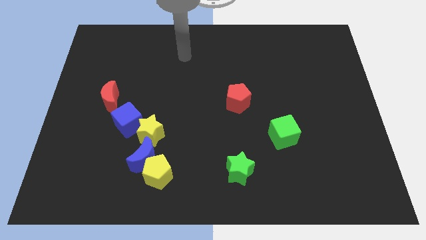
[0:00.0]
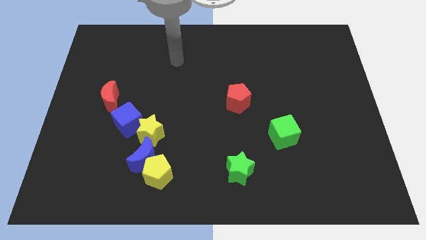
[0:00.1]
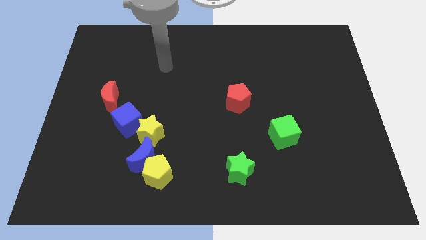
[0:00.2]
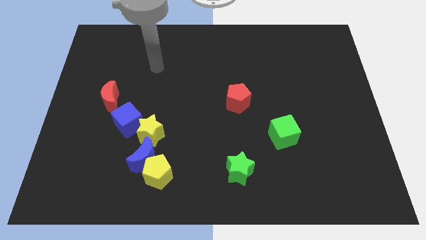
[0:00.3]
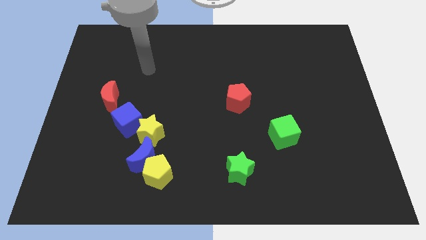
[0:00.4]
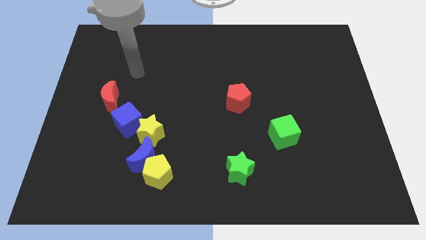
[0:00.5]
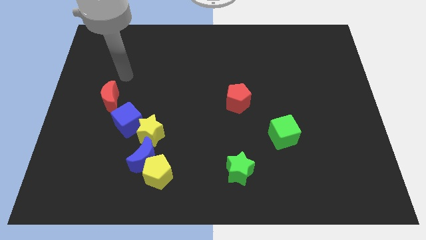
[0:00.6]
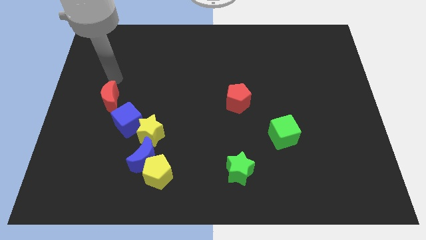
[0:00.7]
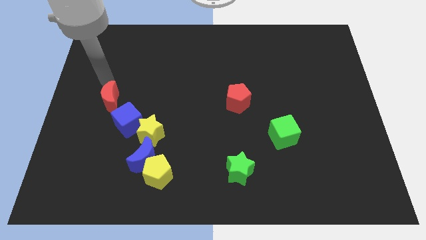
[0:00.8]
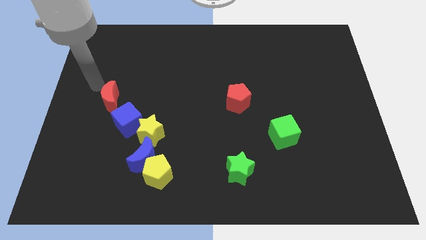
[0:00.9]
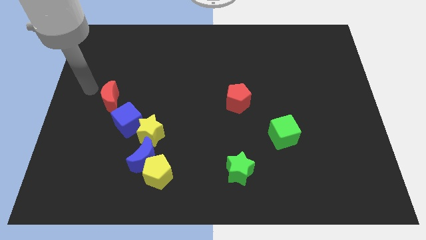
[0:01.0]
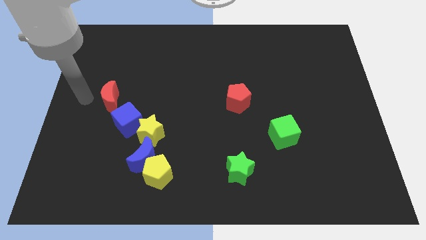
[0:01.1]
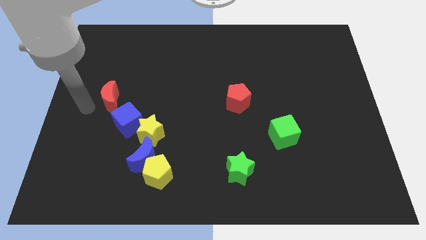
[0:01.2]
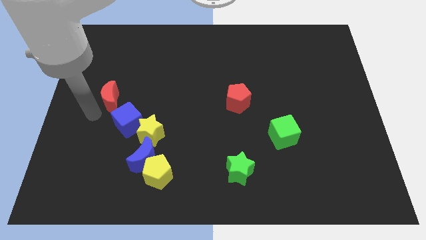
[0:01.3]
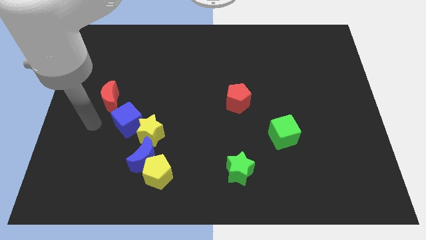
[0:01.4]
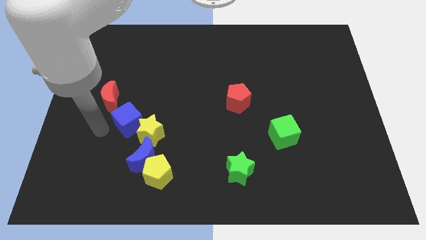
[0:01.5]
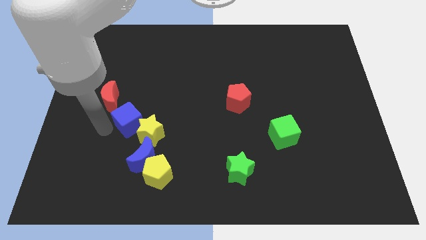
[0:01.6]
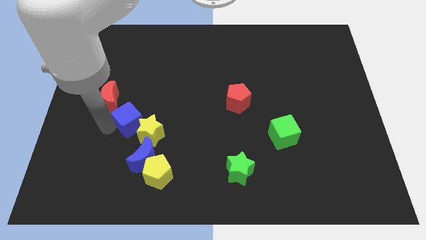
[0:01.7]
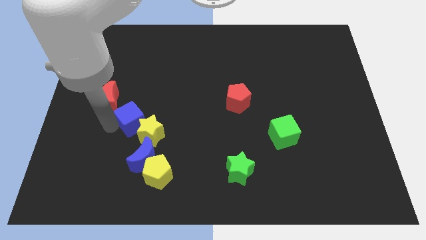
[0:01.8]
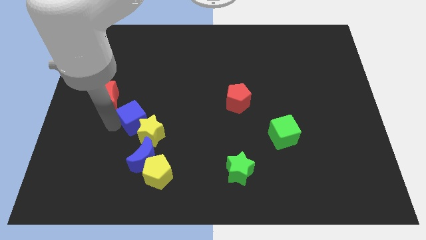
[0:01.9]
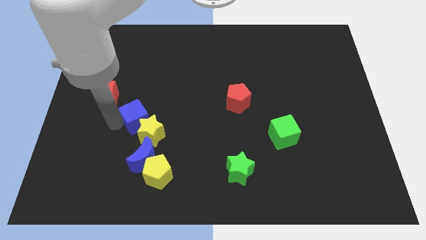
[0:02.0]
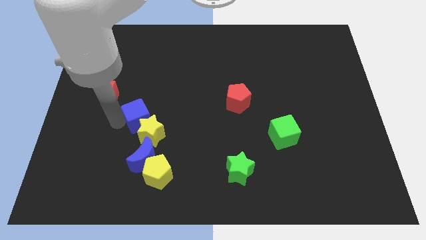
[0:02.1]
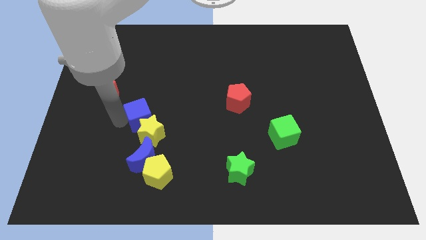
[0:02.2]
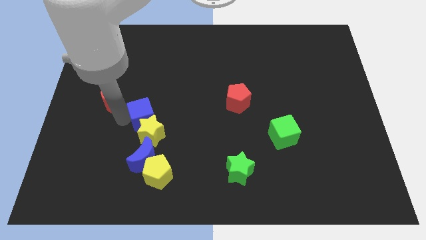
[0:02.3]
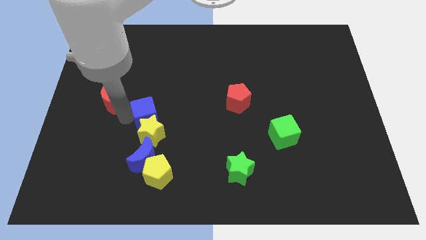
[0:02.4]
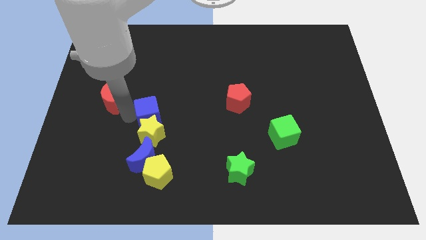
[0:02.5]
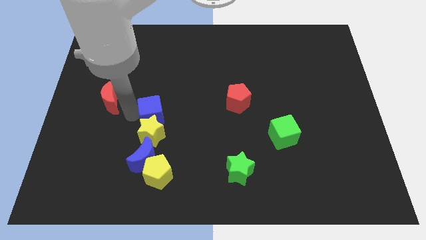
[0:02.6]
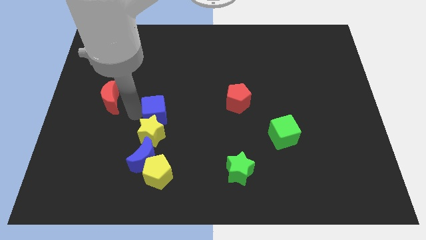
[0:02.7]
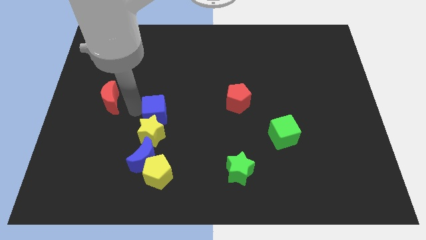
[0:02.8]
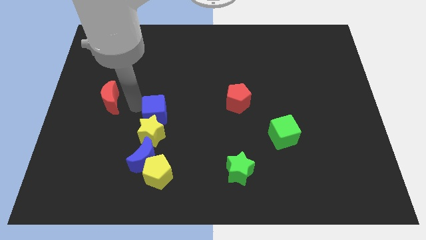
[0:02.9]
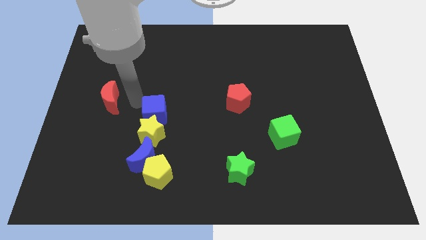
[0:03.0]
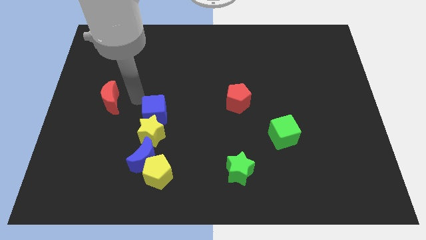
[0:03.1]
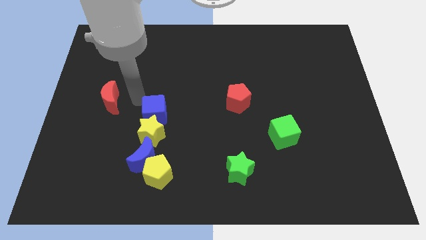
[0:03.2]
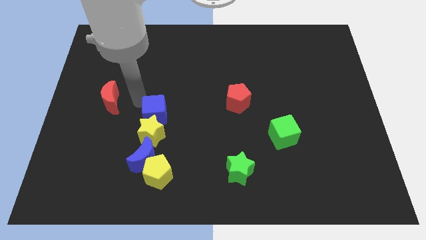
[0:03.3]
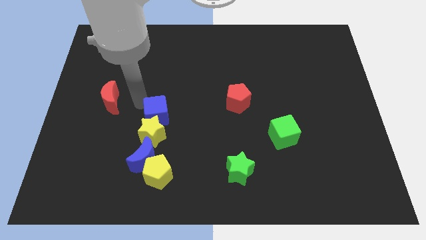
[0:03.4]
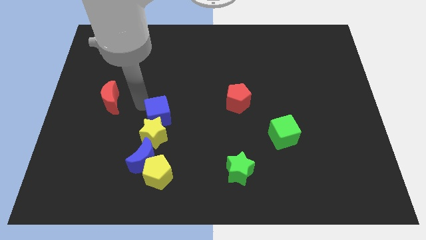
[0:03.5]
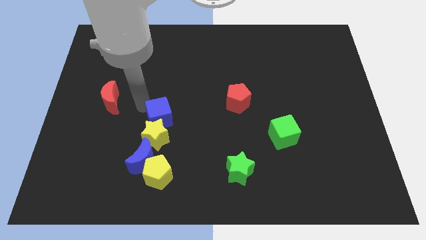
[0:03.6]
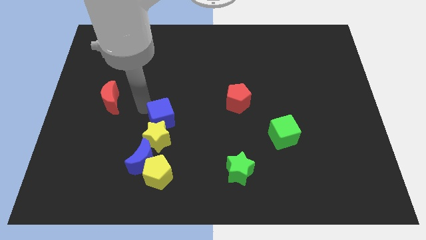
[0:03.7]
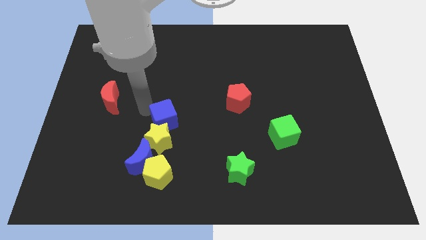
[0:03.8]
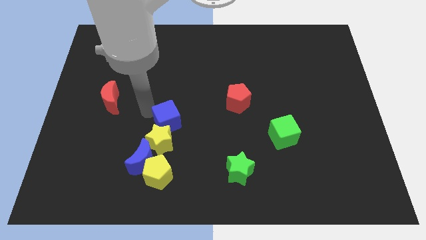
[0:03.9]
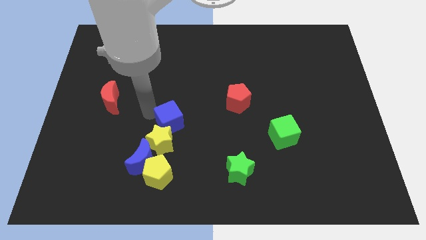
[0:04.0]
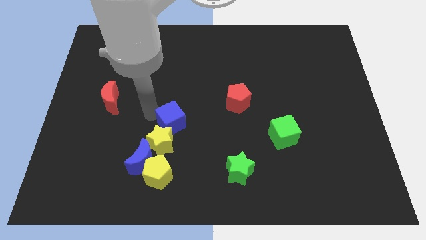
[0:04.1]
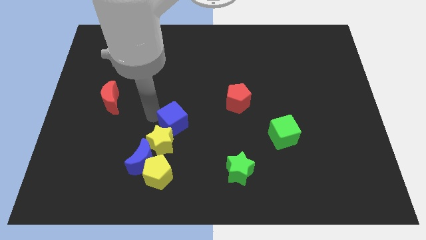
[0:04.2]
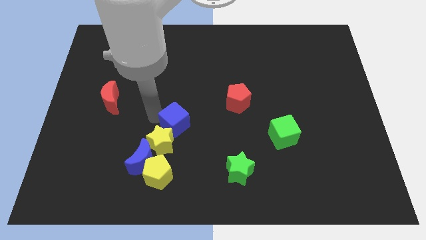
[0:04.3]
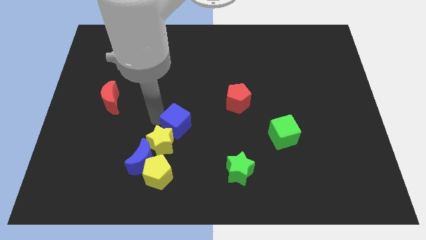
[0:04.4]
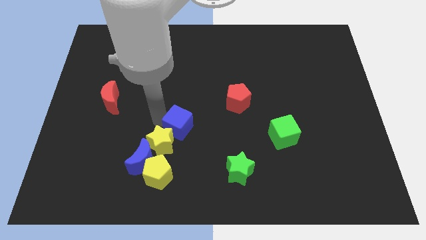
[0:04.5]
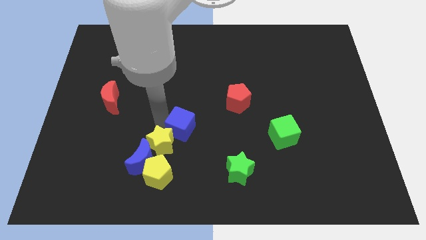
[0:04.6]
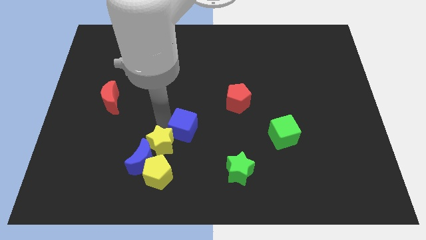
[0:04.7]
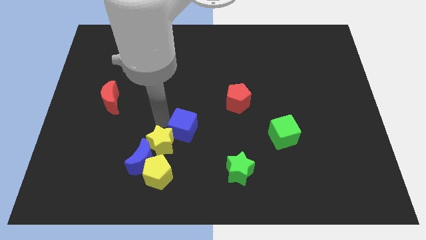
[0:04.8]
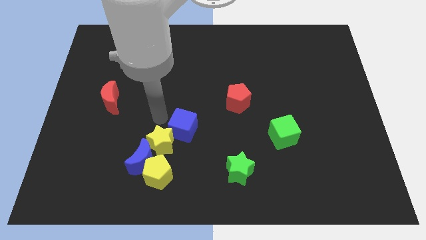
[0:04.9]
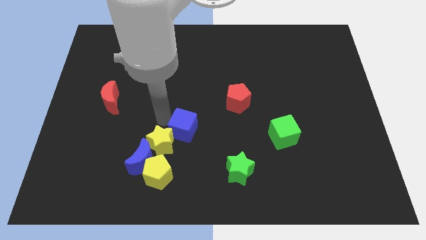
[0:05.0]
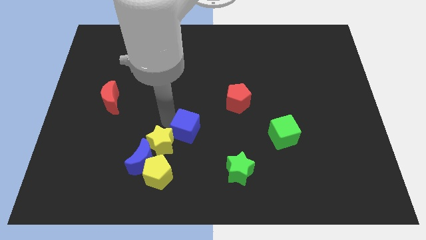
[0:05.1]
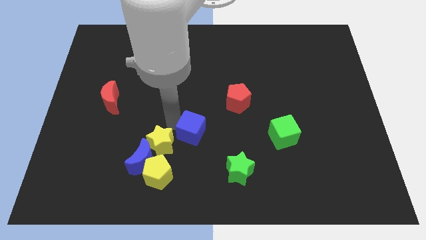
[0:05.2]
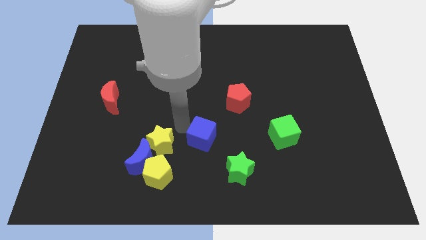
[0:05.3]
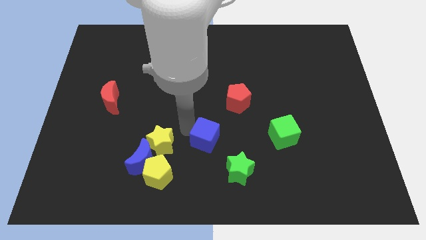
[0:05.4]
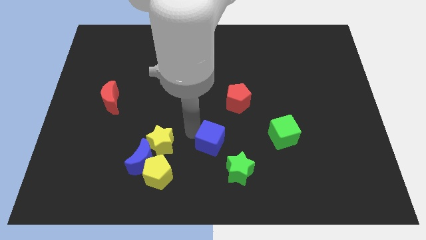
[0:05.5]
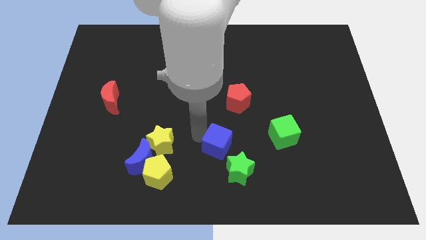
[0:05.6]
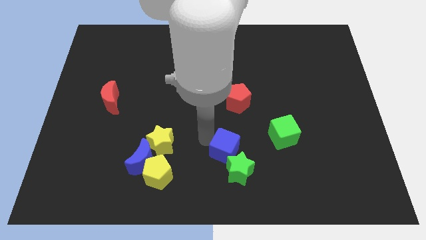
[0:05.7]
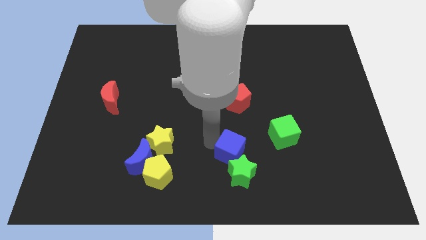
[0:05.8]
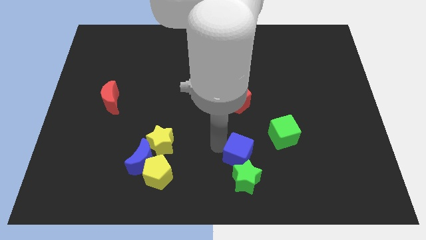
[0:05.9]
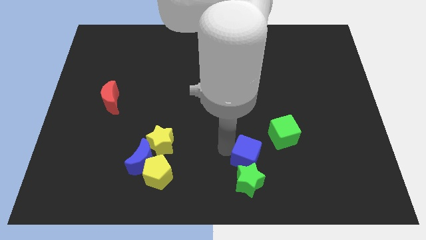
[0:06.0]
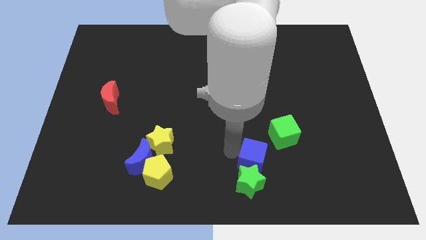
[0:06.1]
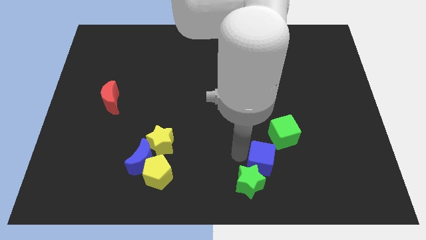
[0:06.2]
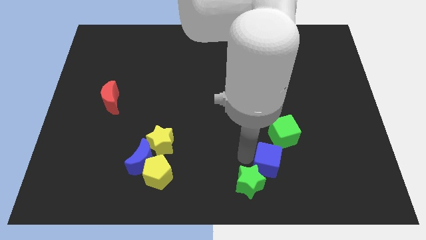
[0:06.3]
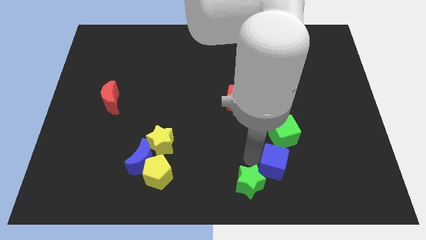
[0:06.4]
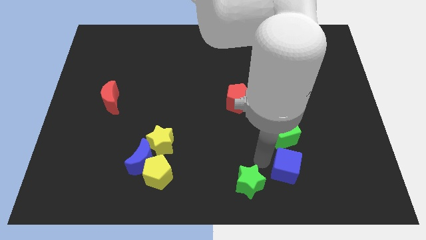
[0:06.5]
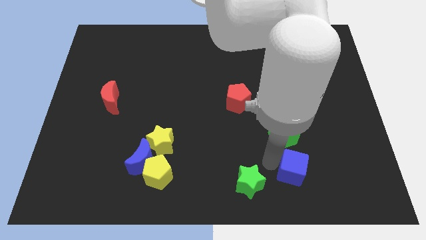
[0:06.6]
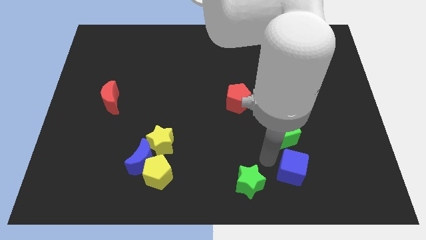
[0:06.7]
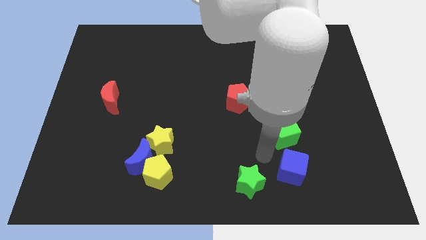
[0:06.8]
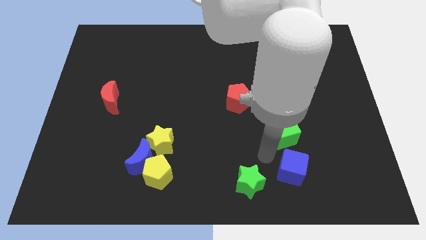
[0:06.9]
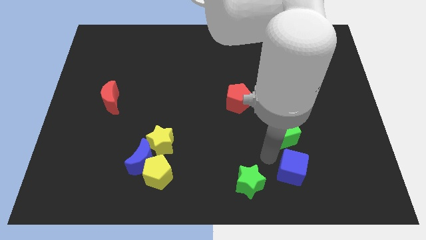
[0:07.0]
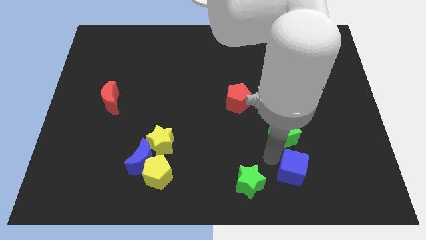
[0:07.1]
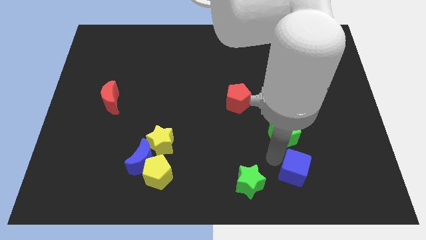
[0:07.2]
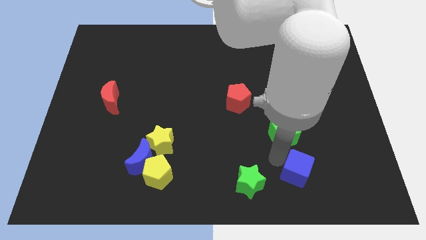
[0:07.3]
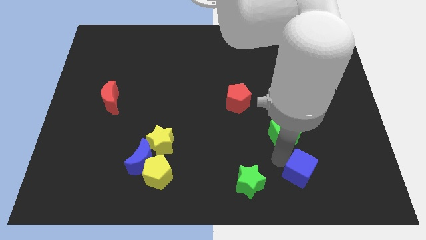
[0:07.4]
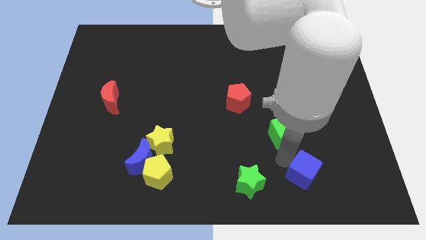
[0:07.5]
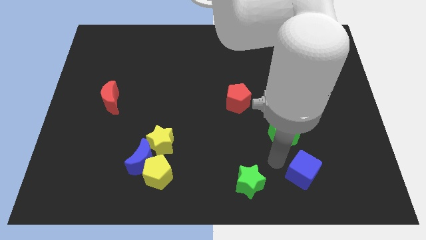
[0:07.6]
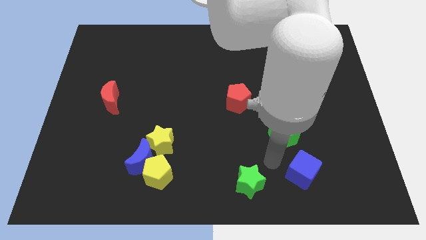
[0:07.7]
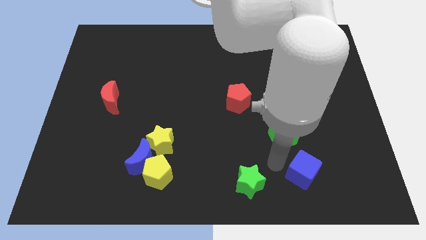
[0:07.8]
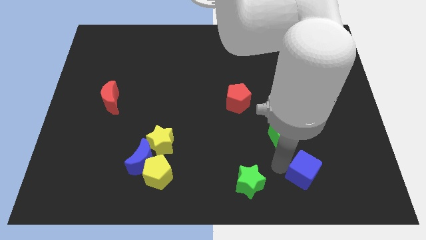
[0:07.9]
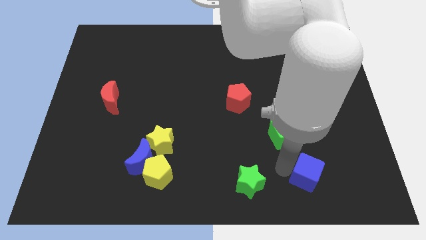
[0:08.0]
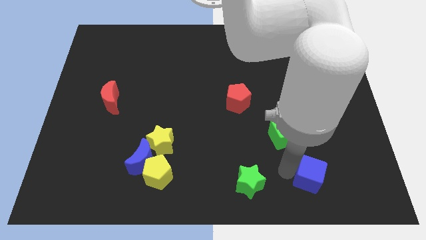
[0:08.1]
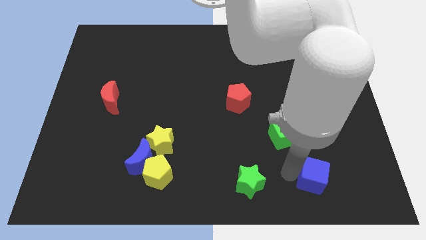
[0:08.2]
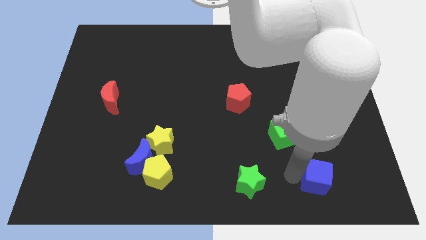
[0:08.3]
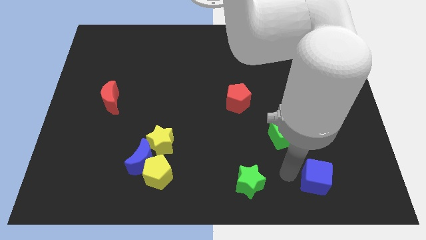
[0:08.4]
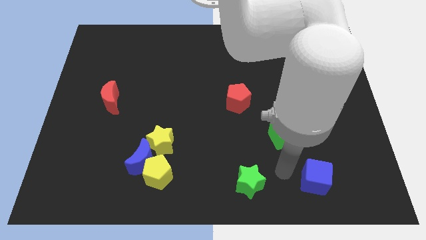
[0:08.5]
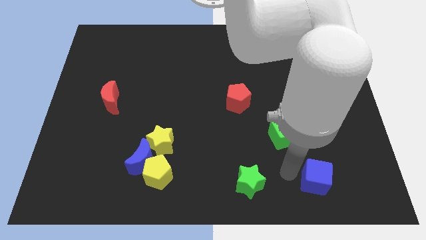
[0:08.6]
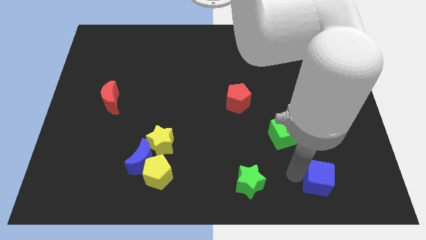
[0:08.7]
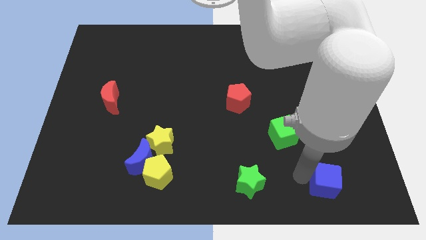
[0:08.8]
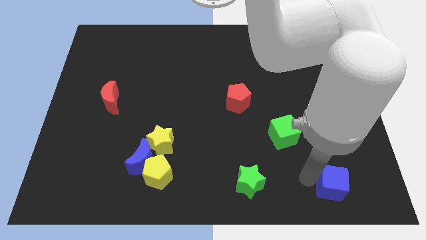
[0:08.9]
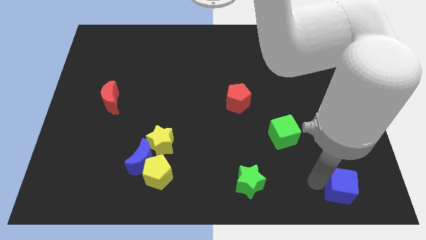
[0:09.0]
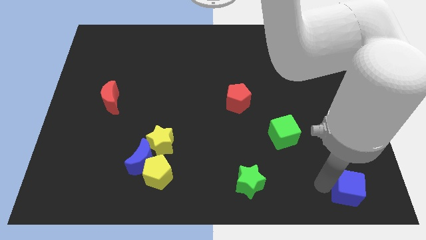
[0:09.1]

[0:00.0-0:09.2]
put the blue cube to the lower right corner
